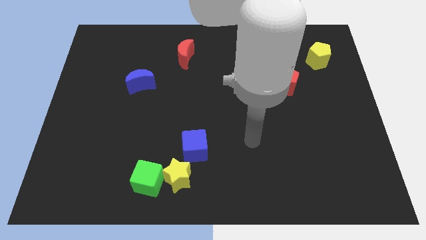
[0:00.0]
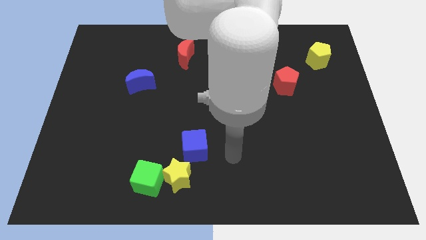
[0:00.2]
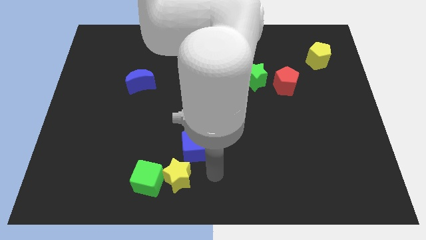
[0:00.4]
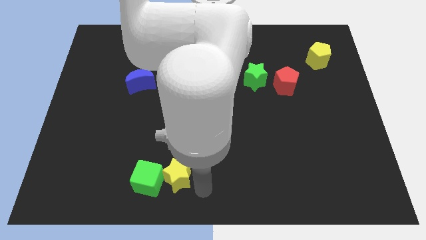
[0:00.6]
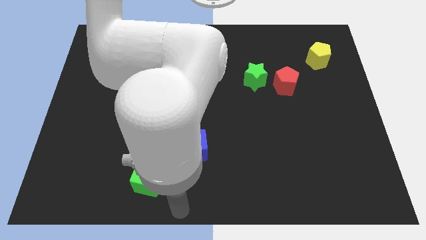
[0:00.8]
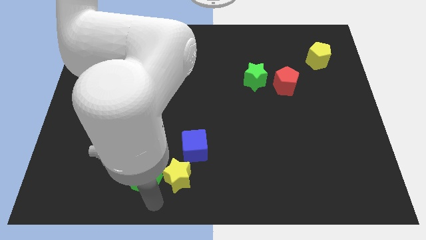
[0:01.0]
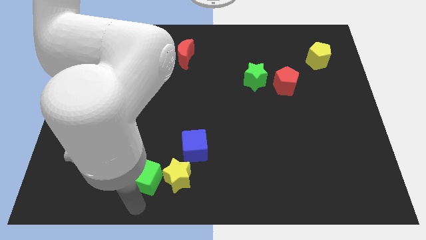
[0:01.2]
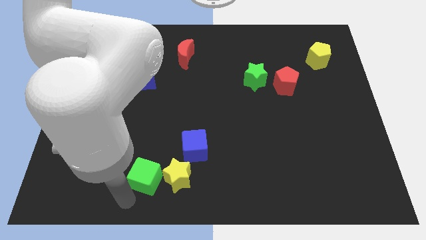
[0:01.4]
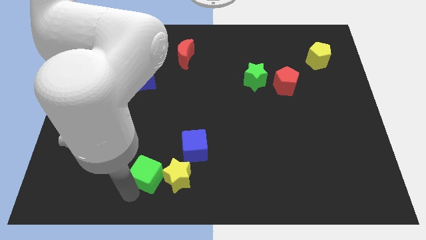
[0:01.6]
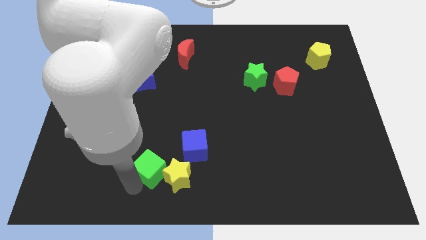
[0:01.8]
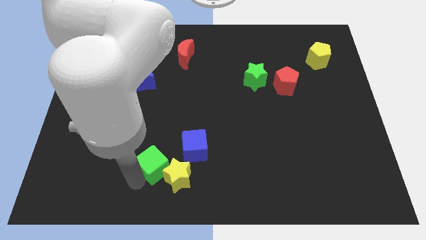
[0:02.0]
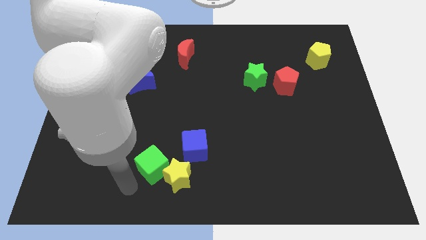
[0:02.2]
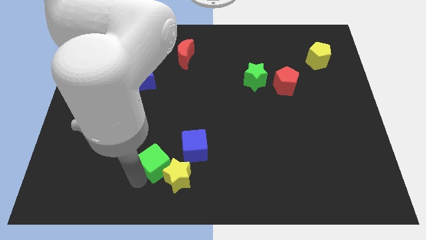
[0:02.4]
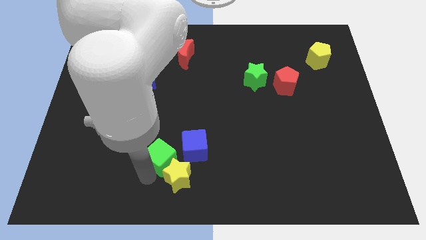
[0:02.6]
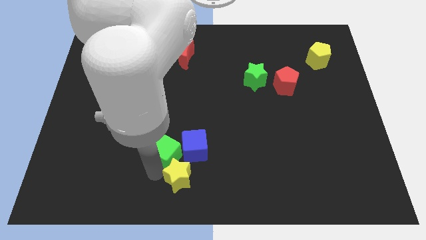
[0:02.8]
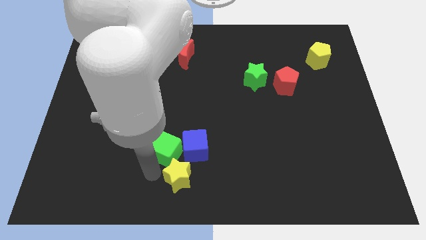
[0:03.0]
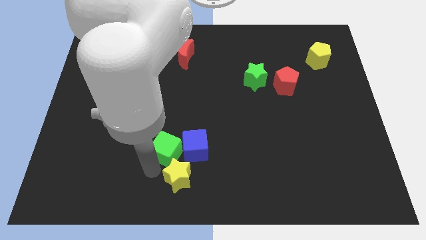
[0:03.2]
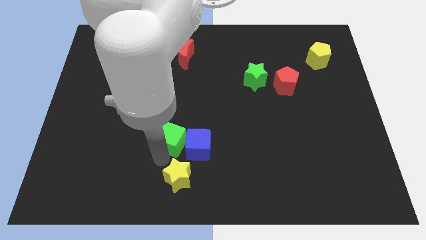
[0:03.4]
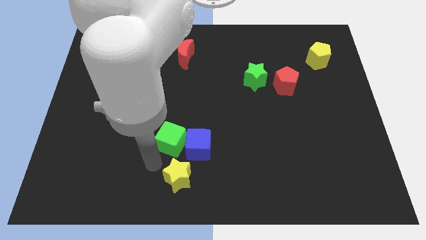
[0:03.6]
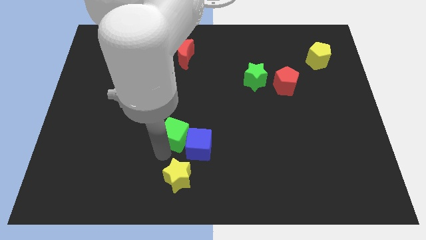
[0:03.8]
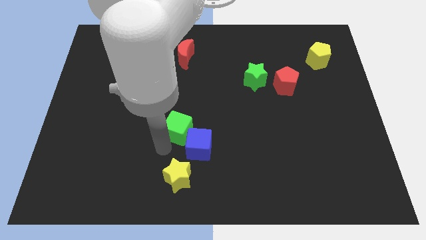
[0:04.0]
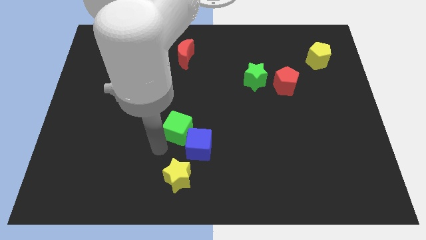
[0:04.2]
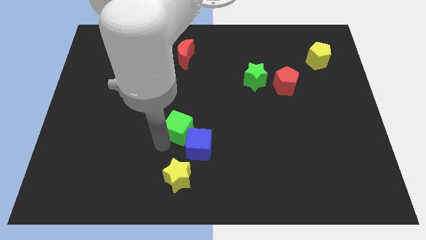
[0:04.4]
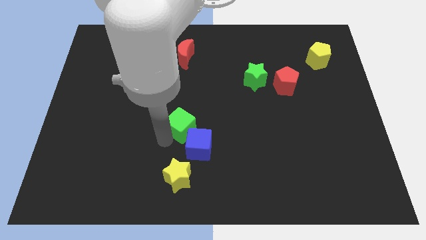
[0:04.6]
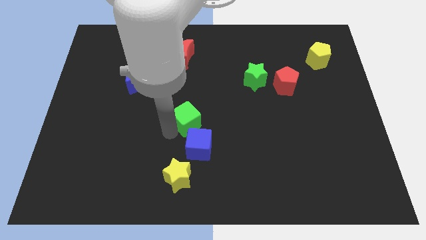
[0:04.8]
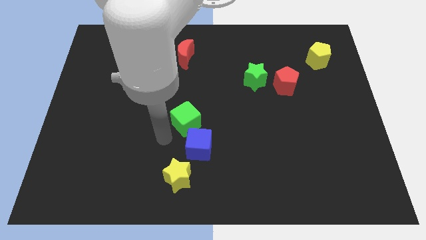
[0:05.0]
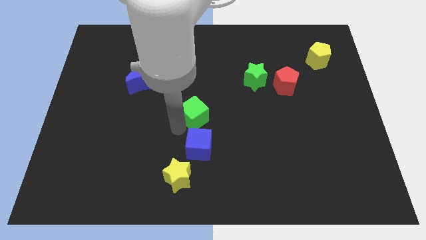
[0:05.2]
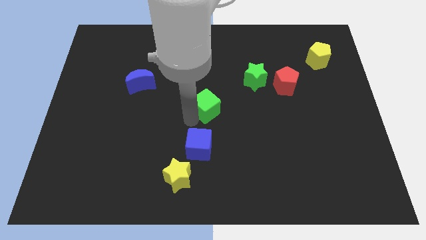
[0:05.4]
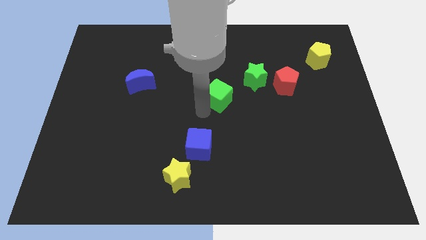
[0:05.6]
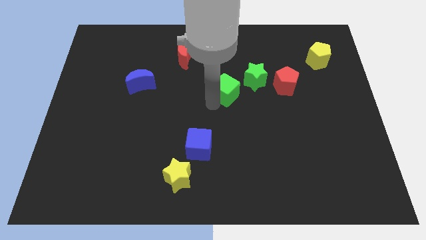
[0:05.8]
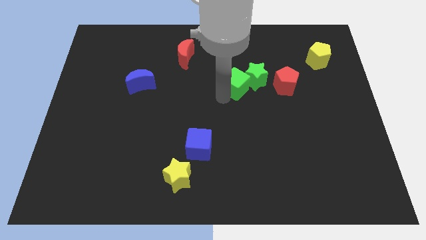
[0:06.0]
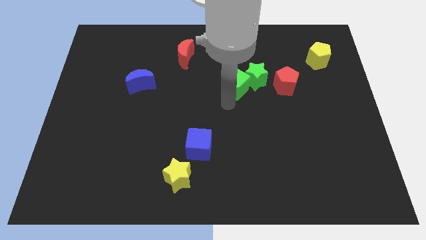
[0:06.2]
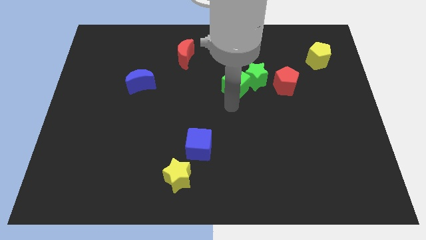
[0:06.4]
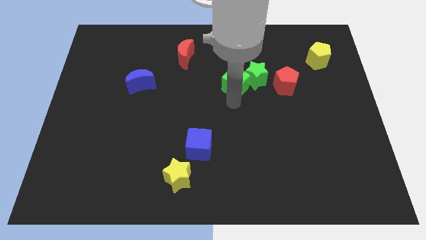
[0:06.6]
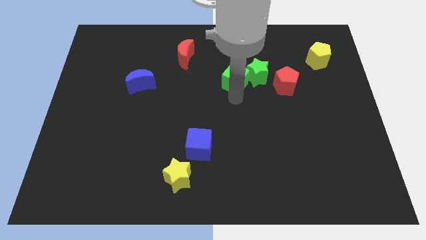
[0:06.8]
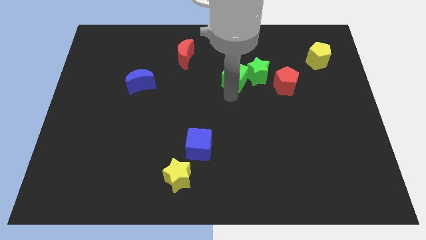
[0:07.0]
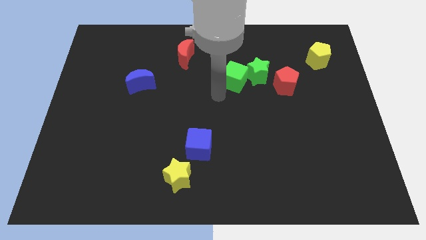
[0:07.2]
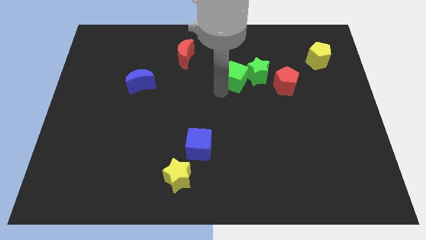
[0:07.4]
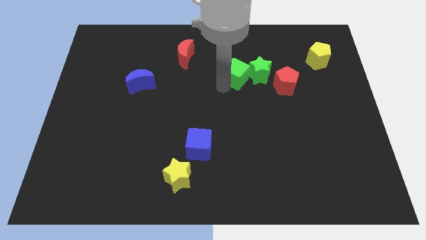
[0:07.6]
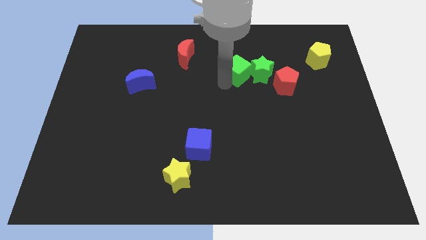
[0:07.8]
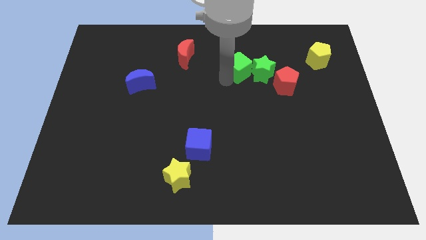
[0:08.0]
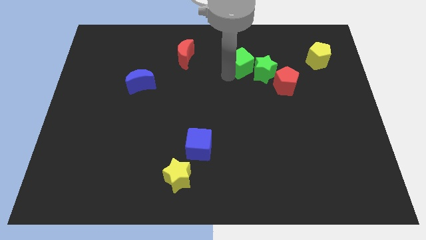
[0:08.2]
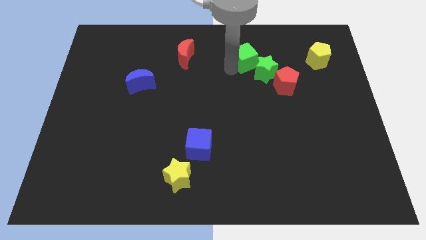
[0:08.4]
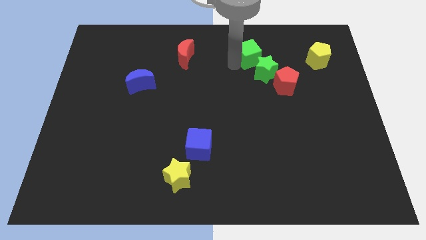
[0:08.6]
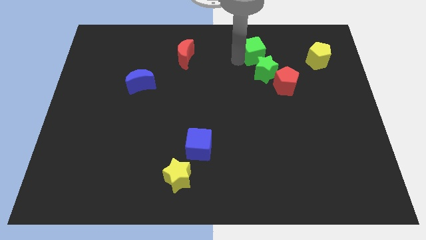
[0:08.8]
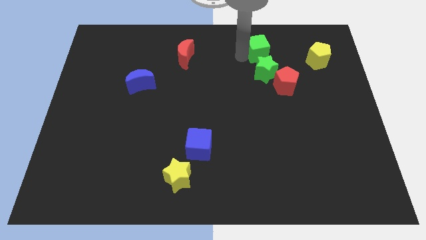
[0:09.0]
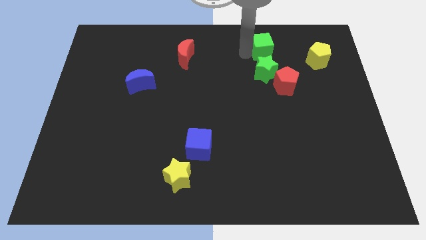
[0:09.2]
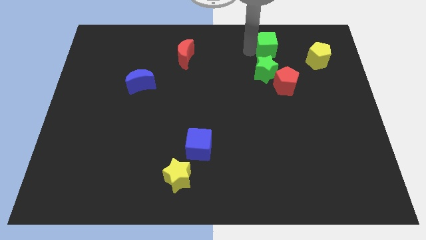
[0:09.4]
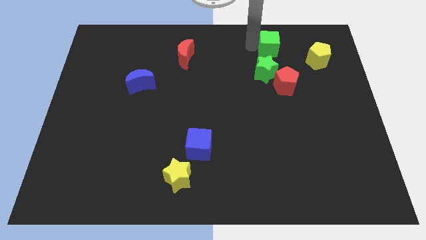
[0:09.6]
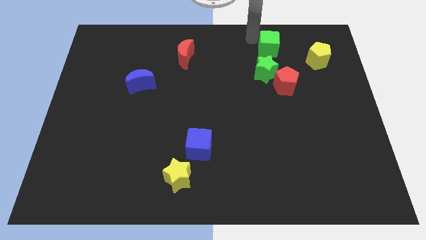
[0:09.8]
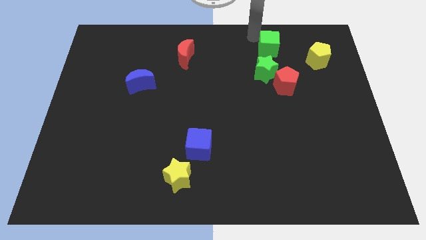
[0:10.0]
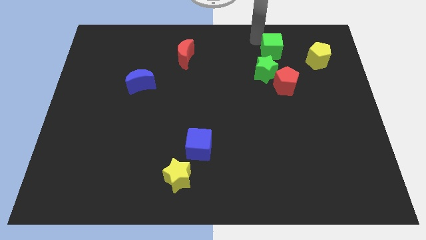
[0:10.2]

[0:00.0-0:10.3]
put the green cube to the top right side of the green star

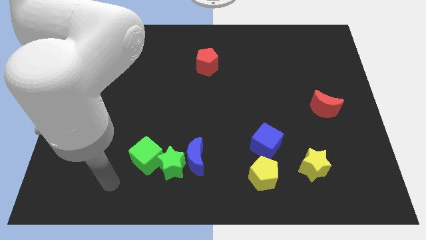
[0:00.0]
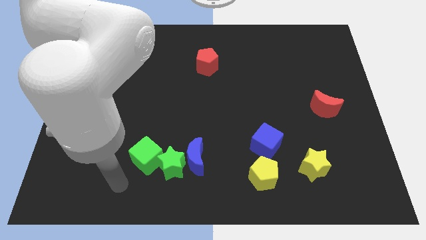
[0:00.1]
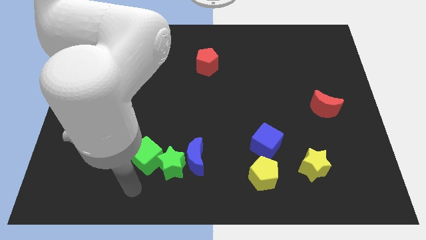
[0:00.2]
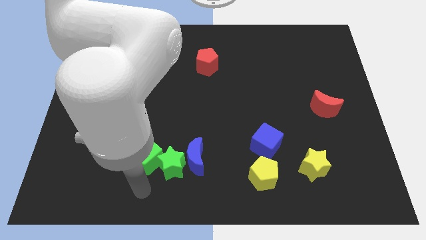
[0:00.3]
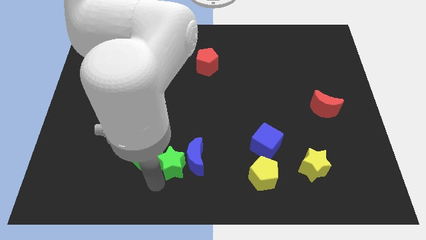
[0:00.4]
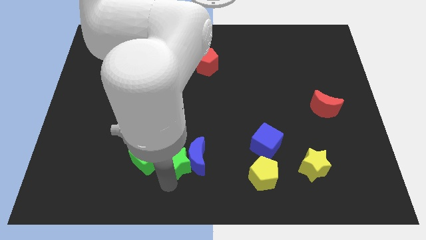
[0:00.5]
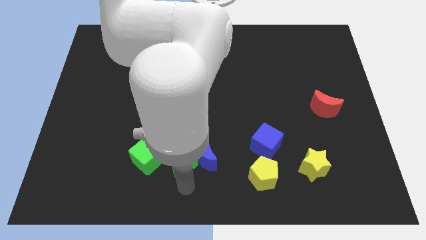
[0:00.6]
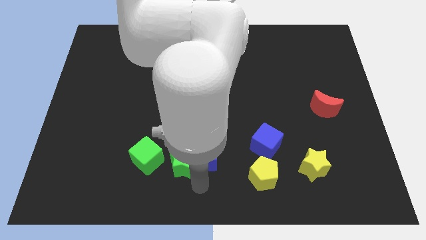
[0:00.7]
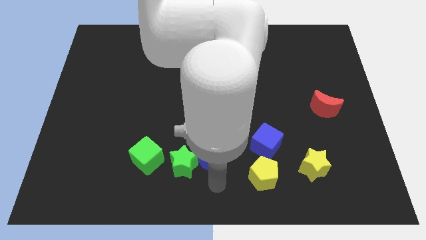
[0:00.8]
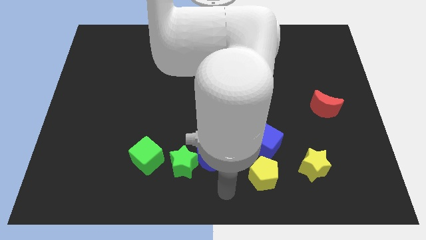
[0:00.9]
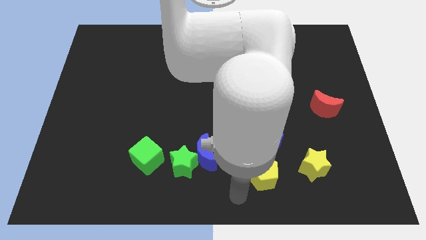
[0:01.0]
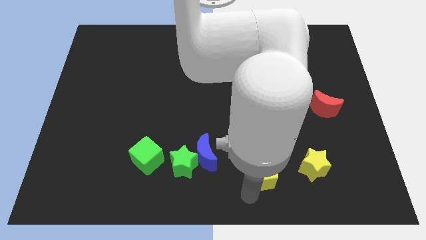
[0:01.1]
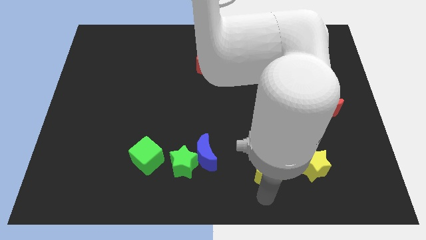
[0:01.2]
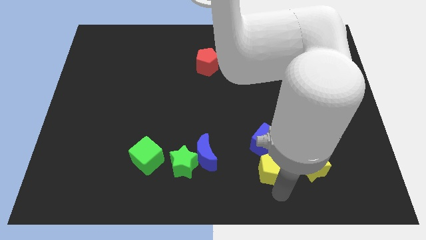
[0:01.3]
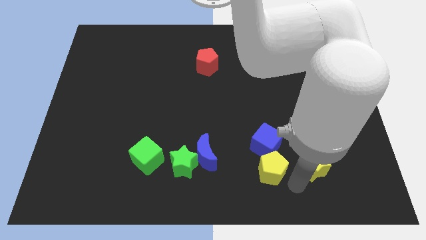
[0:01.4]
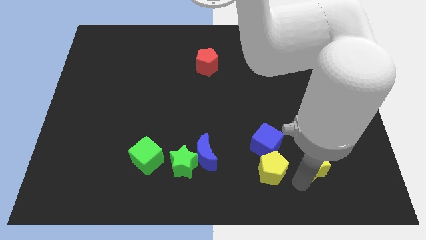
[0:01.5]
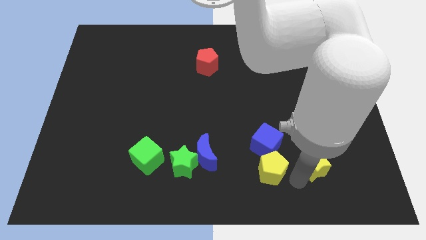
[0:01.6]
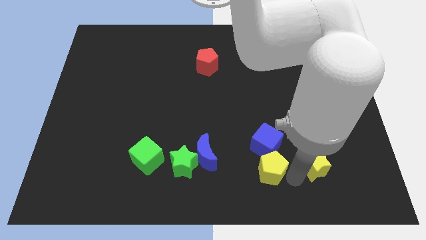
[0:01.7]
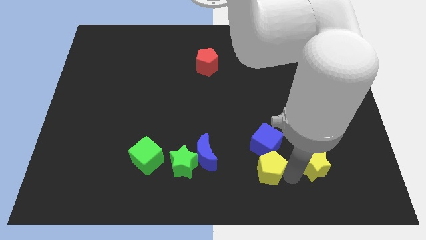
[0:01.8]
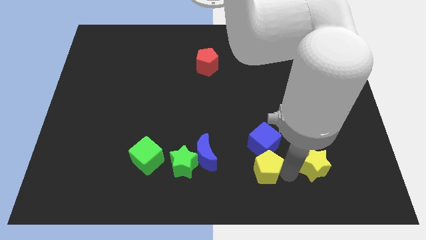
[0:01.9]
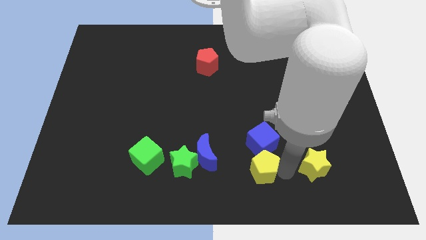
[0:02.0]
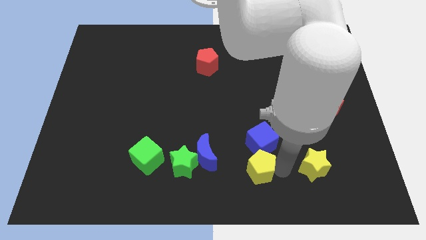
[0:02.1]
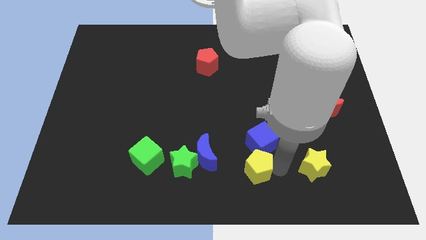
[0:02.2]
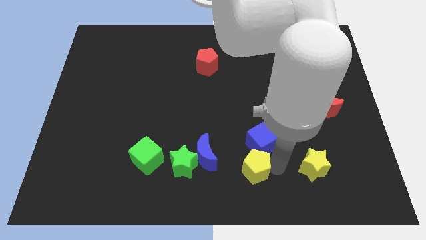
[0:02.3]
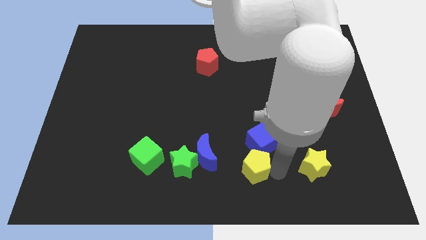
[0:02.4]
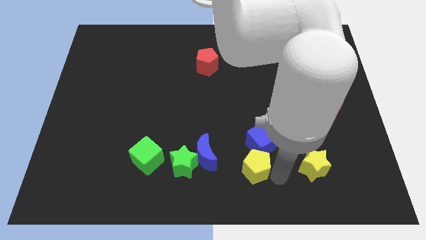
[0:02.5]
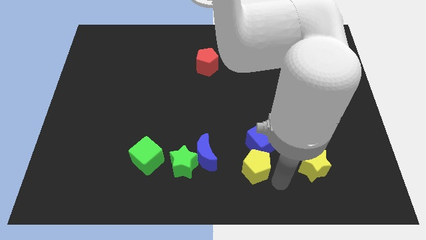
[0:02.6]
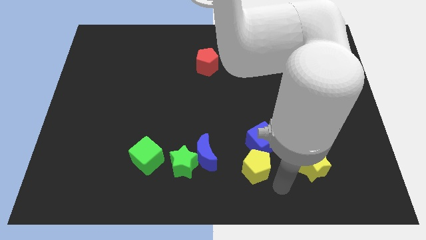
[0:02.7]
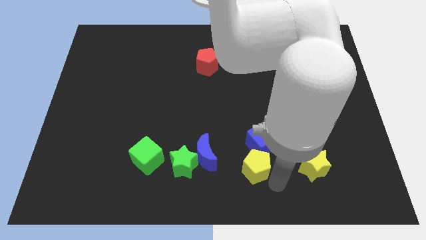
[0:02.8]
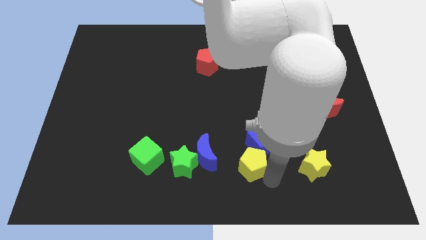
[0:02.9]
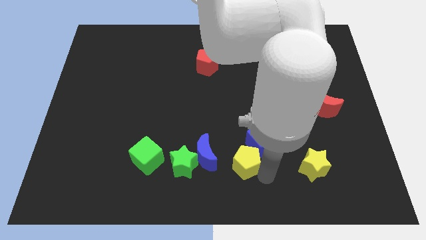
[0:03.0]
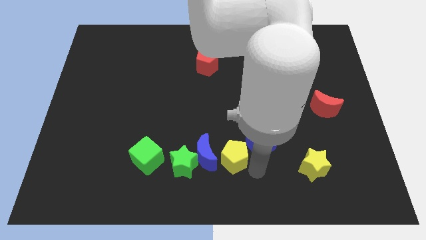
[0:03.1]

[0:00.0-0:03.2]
move the yellow pentagon just left of the blue cube

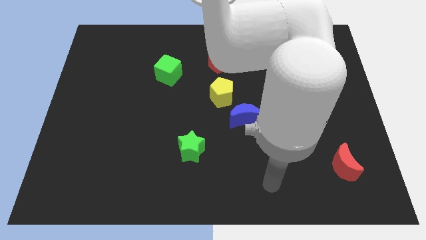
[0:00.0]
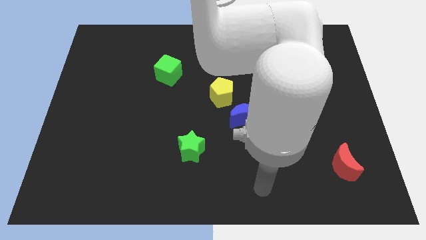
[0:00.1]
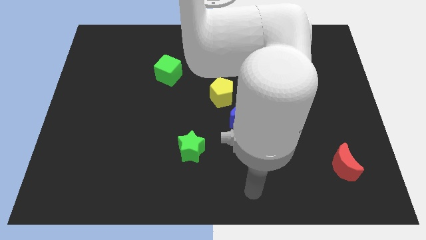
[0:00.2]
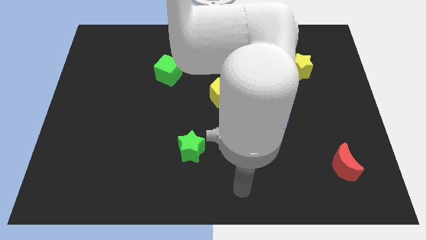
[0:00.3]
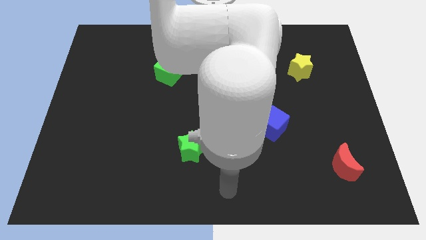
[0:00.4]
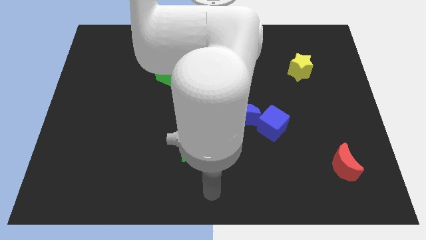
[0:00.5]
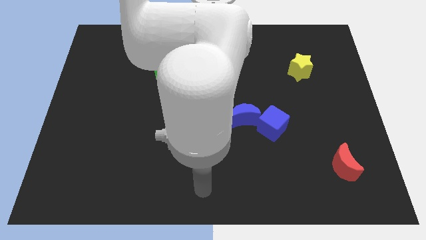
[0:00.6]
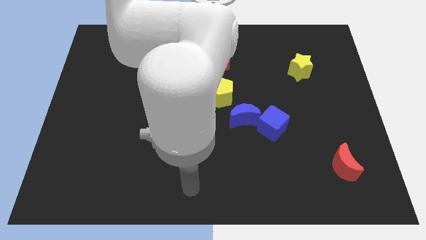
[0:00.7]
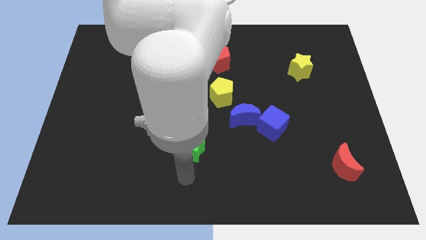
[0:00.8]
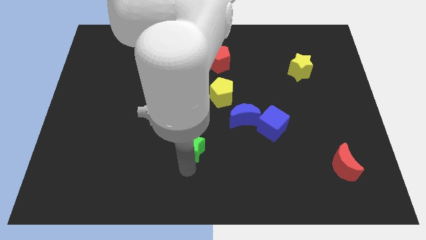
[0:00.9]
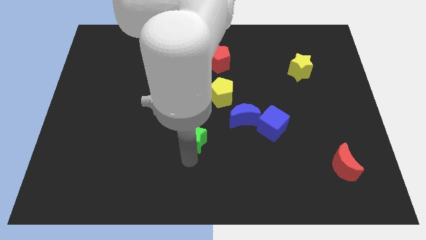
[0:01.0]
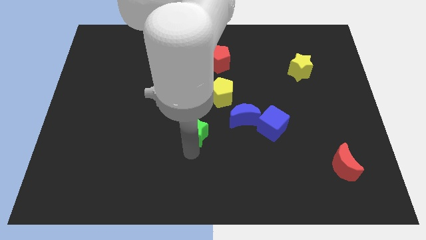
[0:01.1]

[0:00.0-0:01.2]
put the green star to the left side of the blue moon
